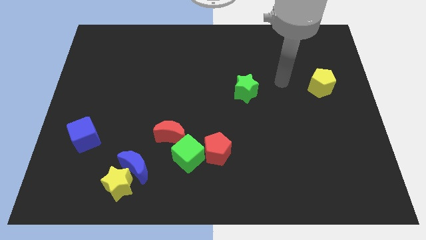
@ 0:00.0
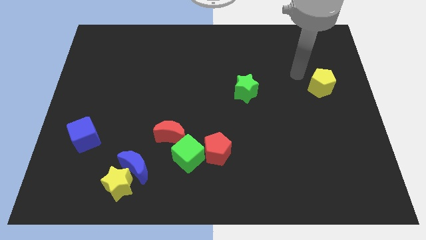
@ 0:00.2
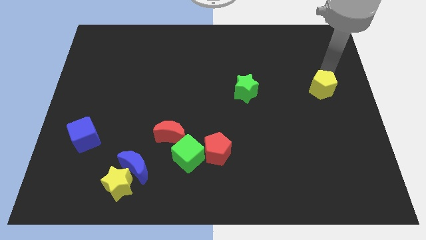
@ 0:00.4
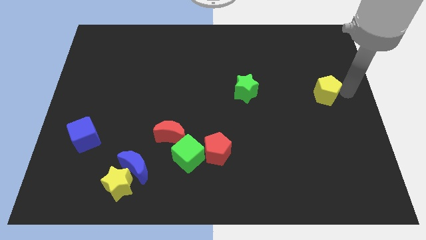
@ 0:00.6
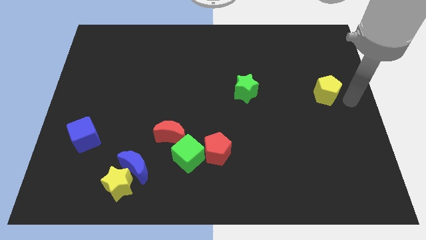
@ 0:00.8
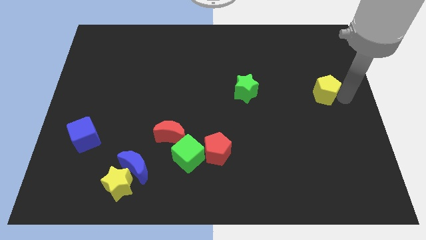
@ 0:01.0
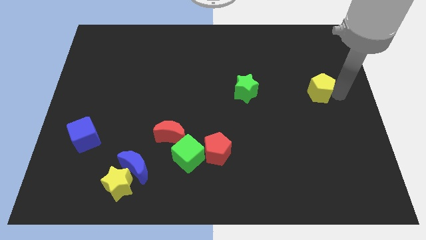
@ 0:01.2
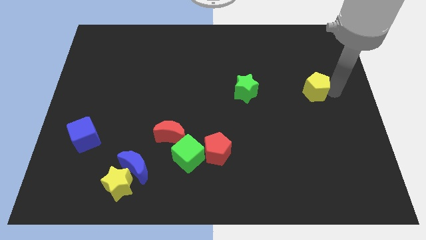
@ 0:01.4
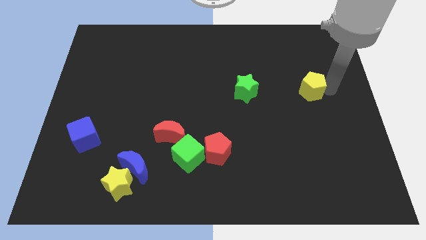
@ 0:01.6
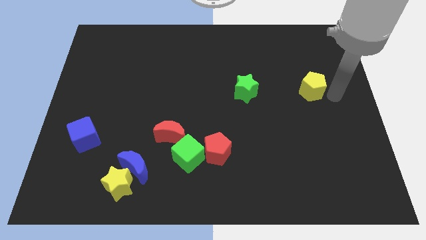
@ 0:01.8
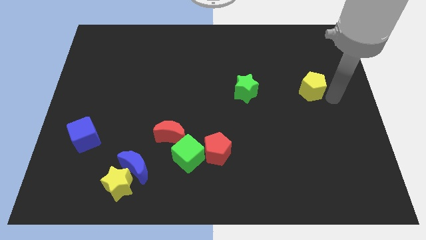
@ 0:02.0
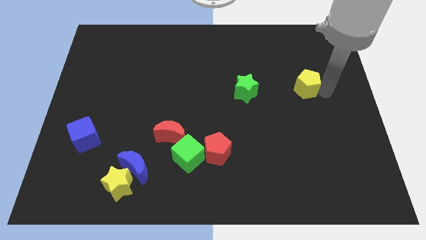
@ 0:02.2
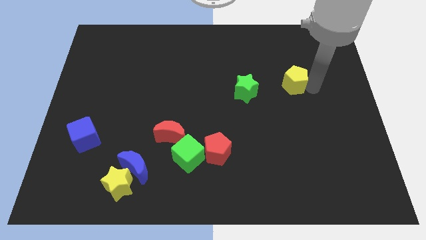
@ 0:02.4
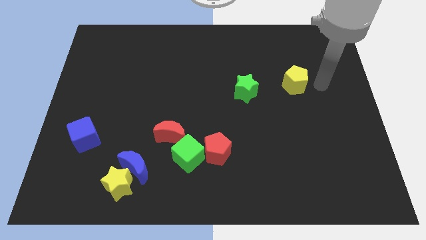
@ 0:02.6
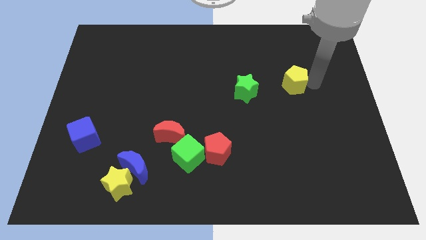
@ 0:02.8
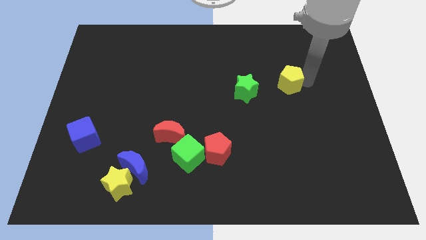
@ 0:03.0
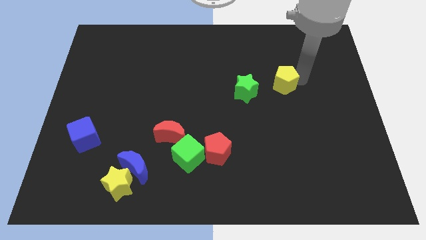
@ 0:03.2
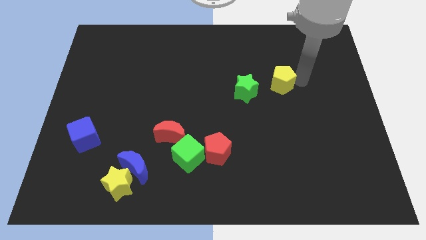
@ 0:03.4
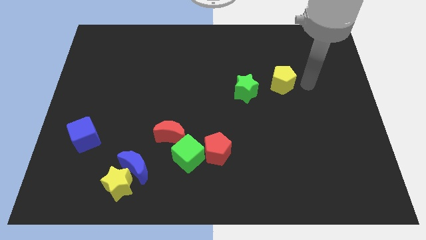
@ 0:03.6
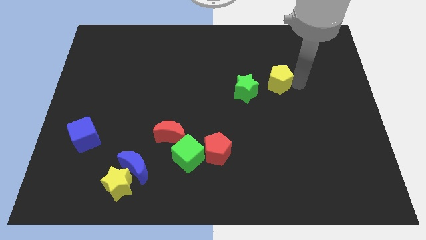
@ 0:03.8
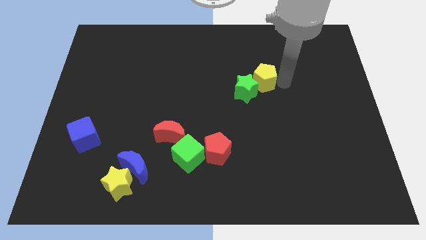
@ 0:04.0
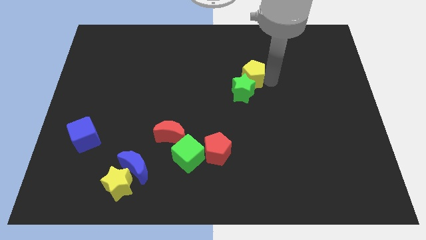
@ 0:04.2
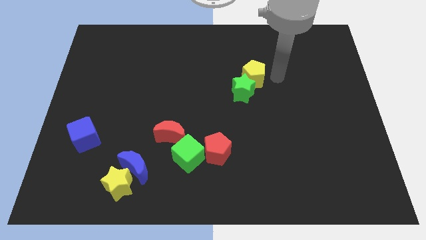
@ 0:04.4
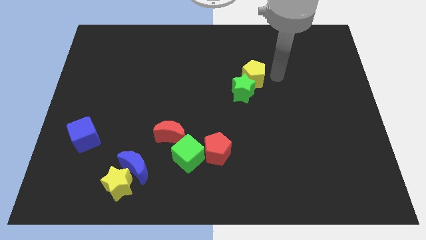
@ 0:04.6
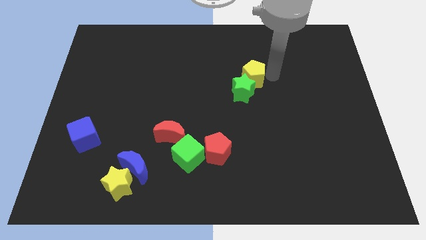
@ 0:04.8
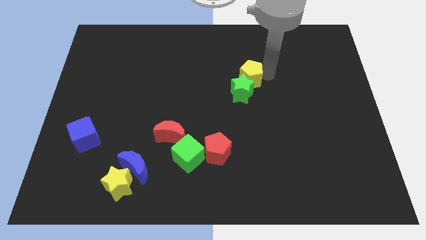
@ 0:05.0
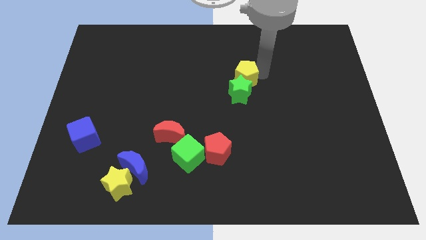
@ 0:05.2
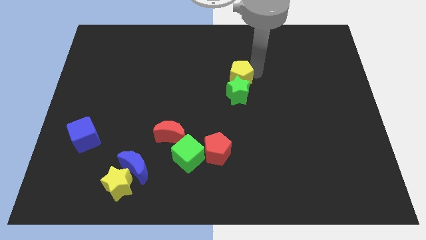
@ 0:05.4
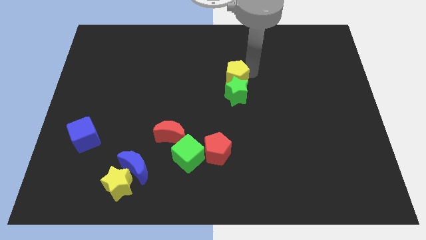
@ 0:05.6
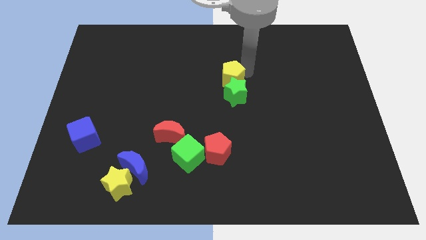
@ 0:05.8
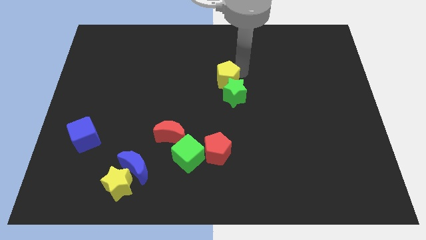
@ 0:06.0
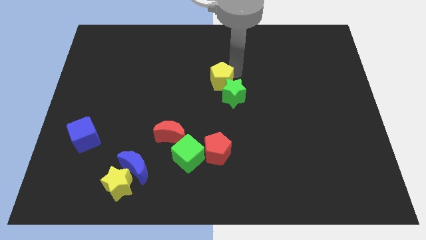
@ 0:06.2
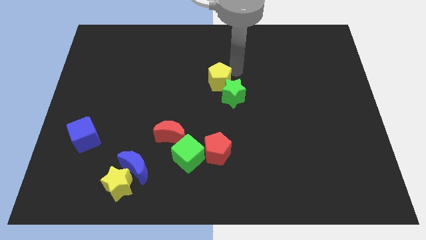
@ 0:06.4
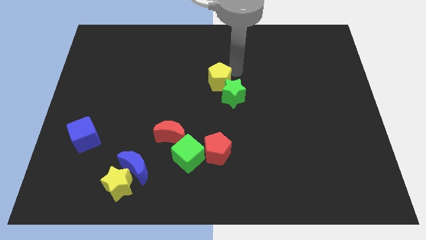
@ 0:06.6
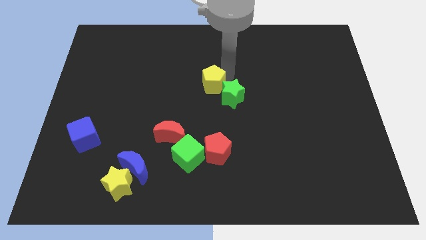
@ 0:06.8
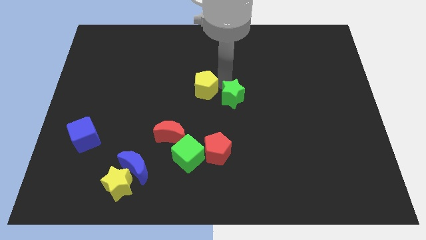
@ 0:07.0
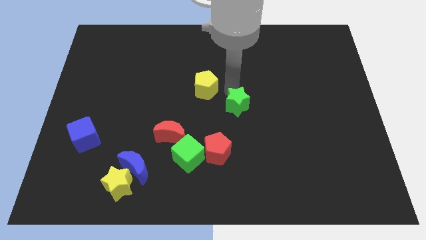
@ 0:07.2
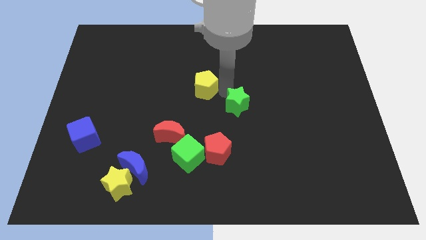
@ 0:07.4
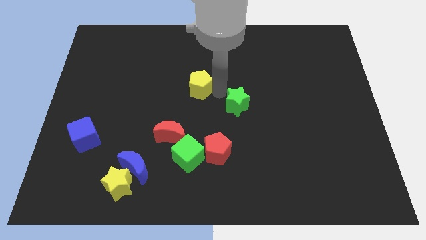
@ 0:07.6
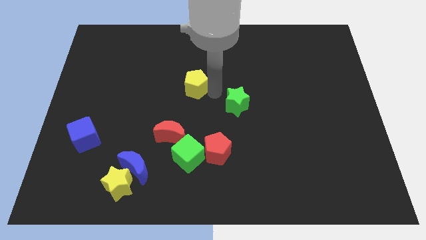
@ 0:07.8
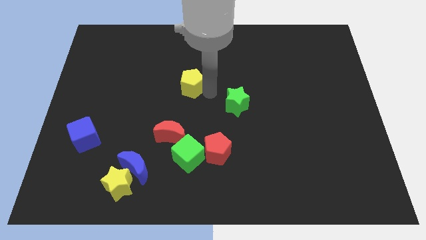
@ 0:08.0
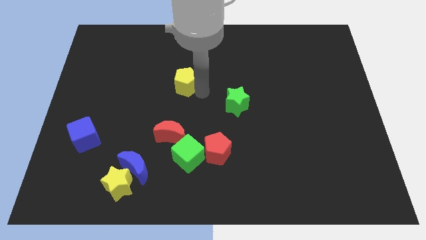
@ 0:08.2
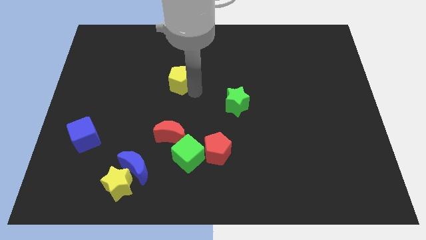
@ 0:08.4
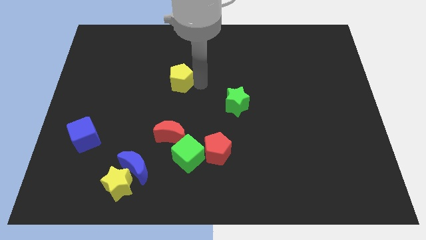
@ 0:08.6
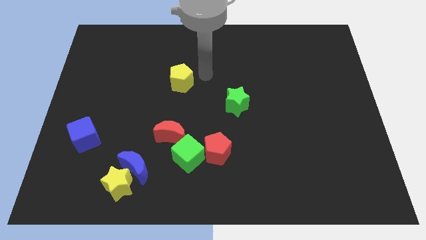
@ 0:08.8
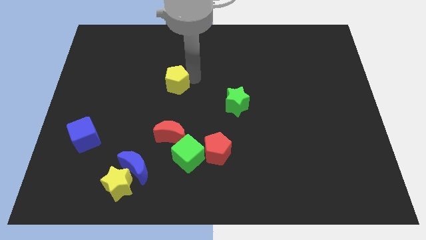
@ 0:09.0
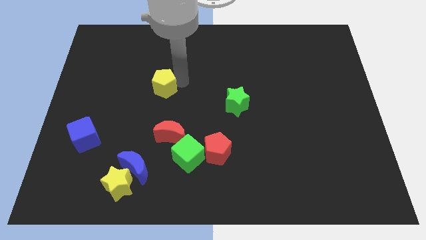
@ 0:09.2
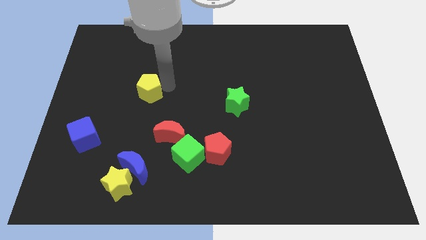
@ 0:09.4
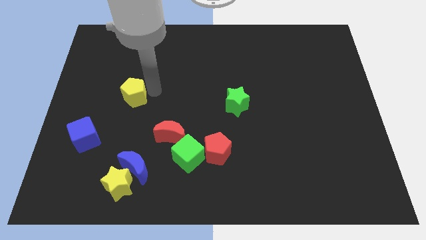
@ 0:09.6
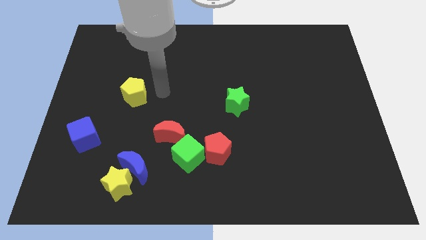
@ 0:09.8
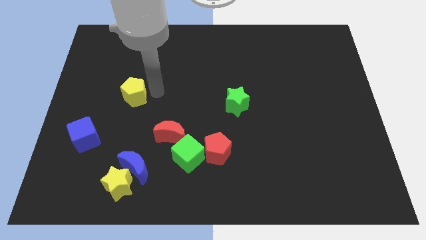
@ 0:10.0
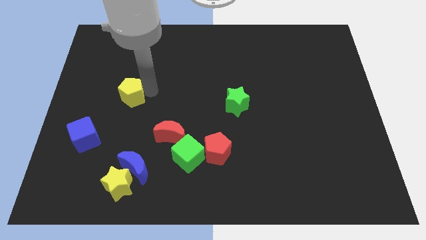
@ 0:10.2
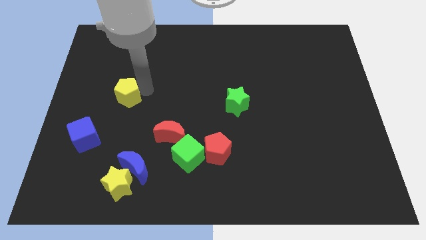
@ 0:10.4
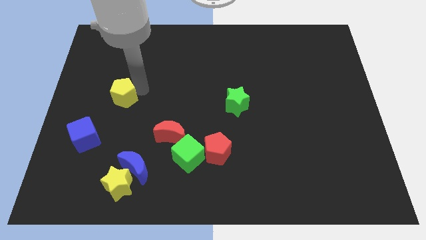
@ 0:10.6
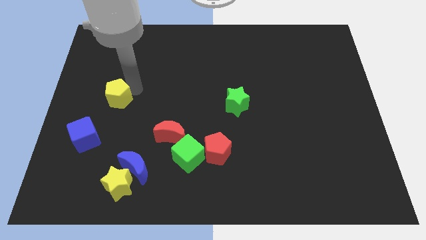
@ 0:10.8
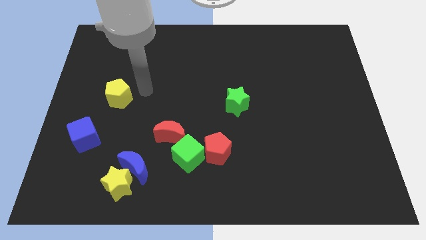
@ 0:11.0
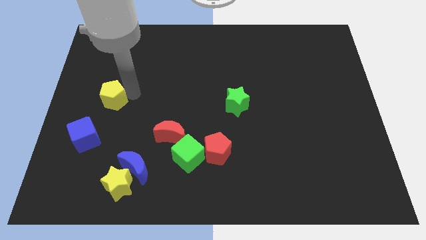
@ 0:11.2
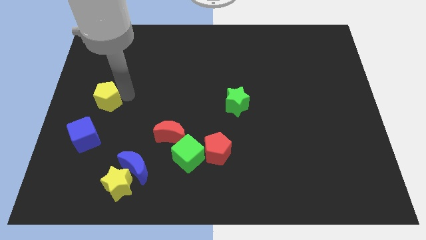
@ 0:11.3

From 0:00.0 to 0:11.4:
put the yellow pentagon to the left side of the board

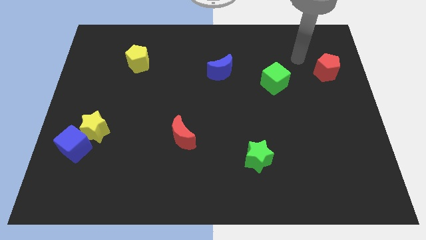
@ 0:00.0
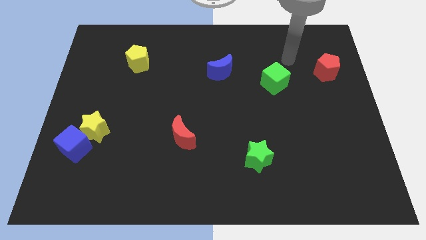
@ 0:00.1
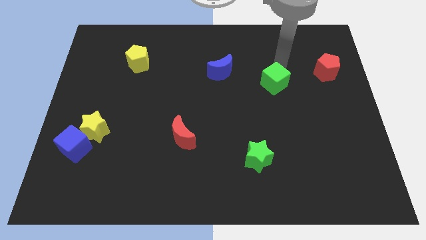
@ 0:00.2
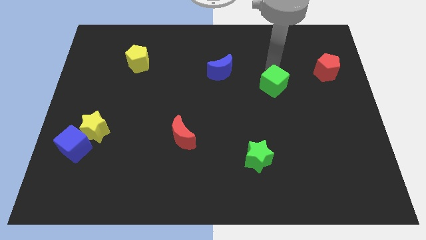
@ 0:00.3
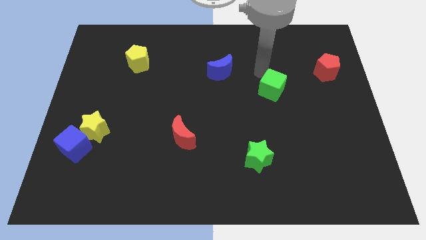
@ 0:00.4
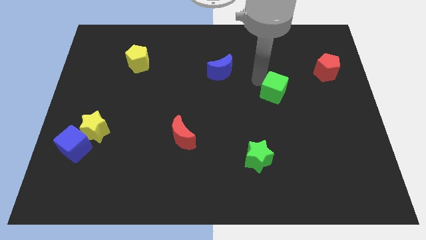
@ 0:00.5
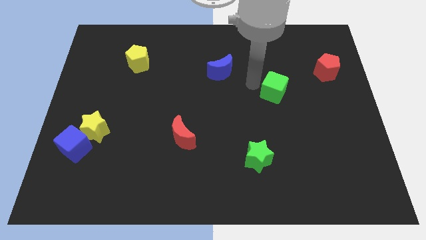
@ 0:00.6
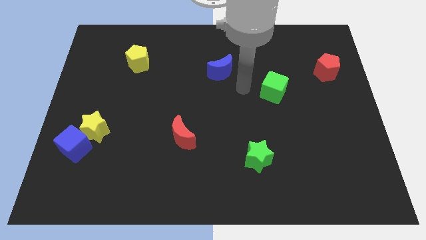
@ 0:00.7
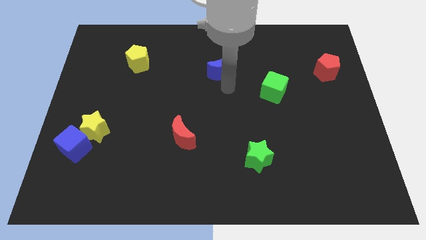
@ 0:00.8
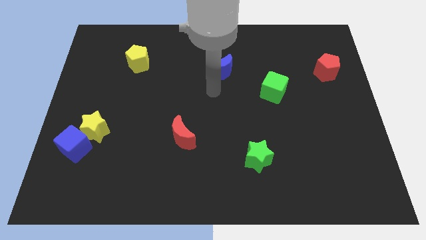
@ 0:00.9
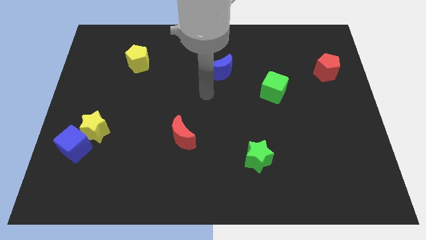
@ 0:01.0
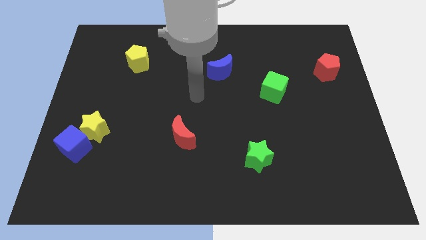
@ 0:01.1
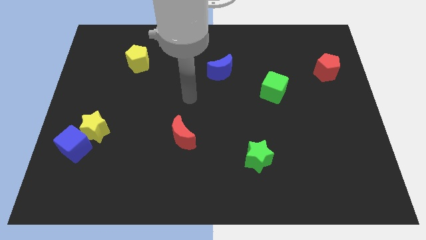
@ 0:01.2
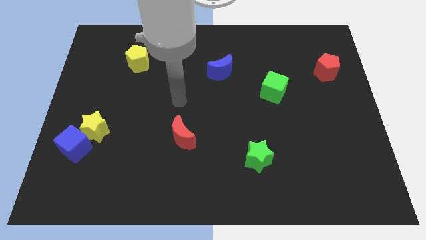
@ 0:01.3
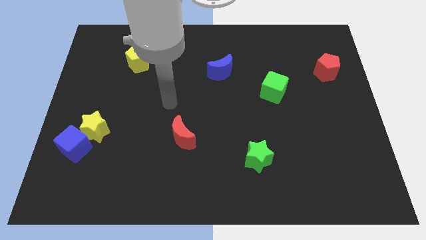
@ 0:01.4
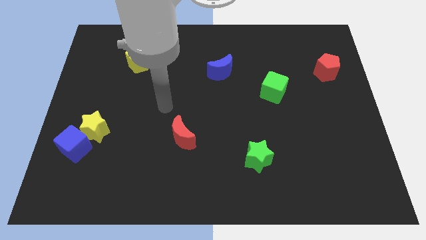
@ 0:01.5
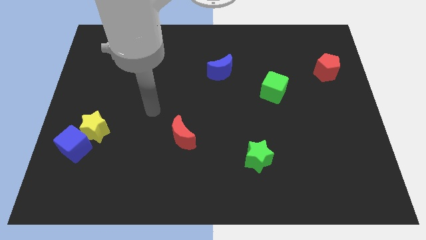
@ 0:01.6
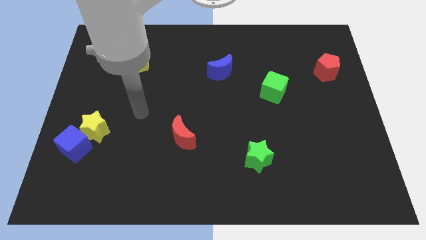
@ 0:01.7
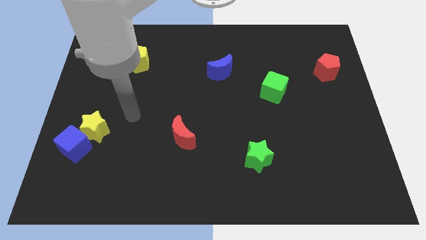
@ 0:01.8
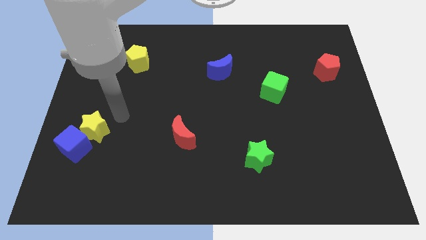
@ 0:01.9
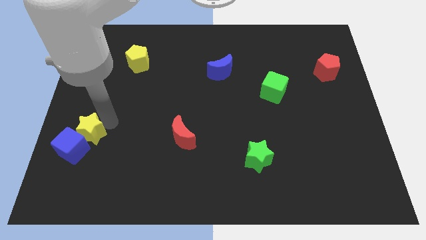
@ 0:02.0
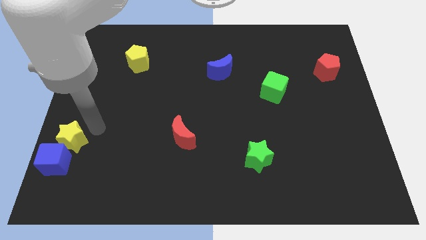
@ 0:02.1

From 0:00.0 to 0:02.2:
move the blue cube to the bottom left
